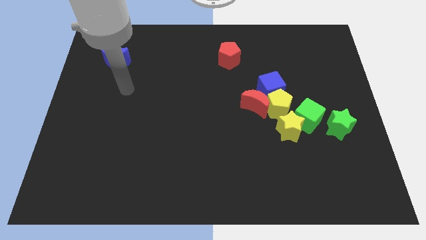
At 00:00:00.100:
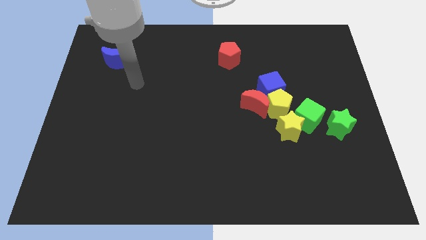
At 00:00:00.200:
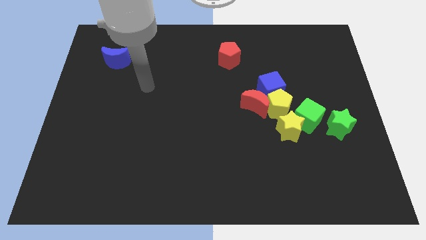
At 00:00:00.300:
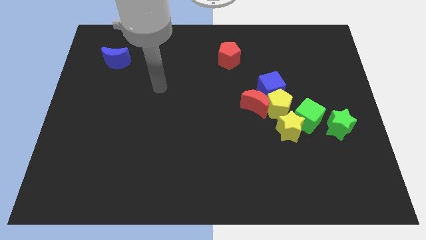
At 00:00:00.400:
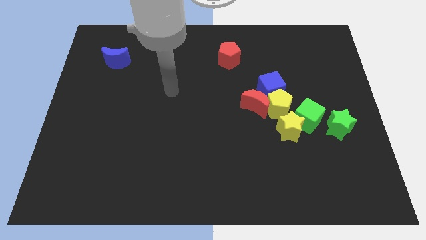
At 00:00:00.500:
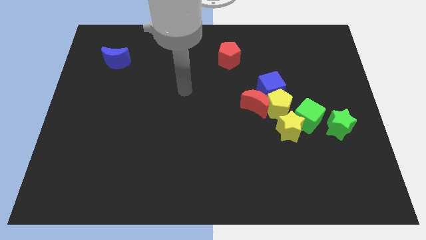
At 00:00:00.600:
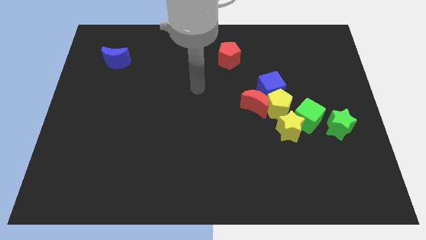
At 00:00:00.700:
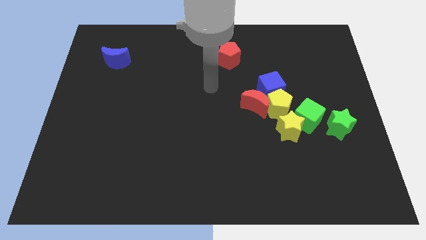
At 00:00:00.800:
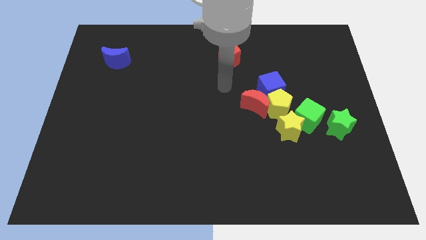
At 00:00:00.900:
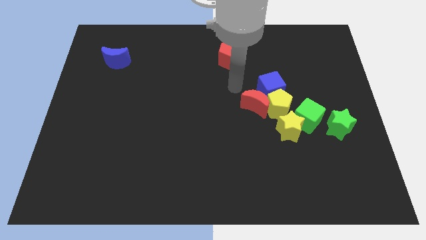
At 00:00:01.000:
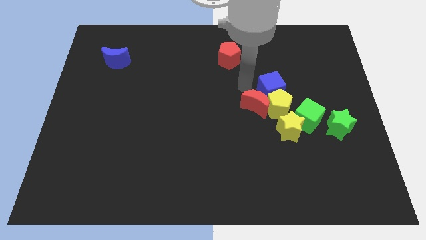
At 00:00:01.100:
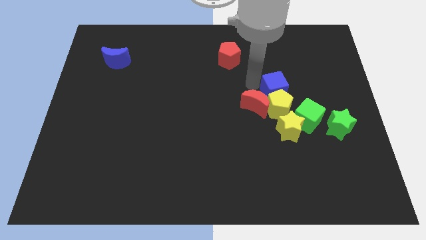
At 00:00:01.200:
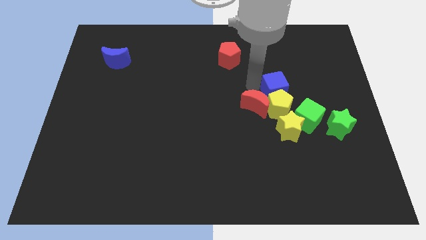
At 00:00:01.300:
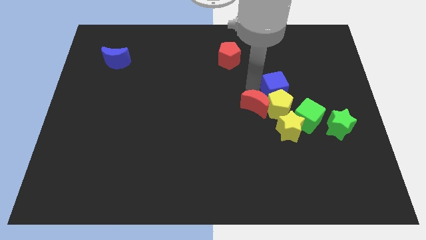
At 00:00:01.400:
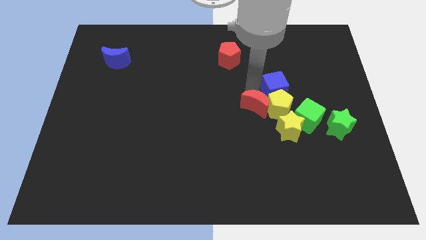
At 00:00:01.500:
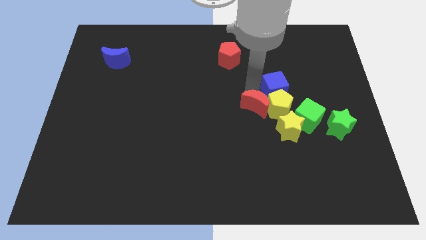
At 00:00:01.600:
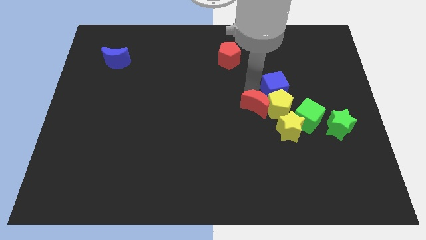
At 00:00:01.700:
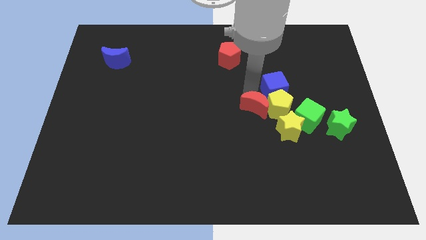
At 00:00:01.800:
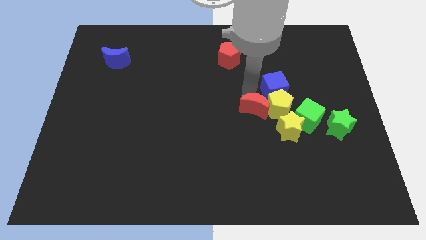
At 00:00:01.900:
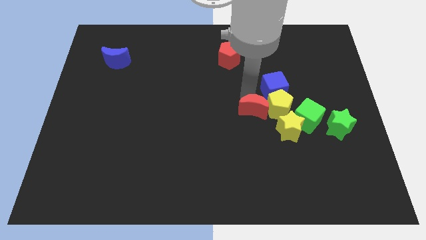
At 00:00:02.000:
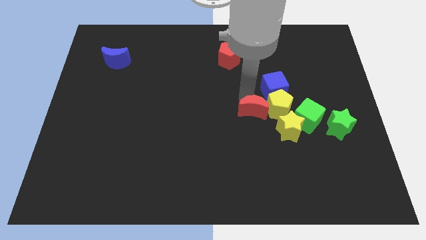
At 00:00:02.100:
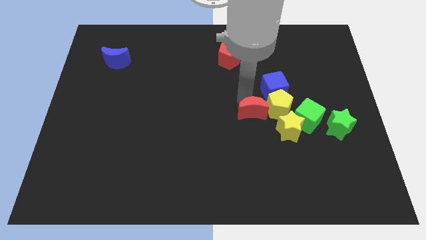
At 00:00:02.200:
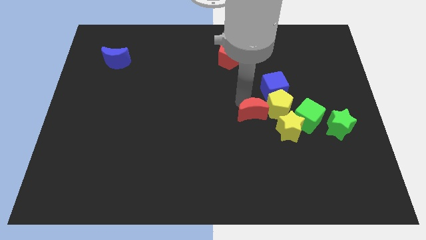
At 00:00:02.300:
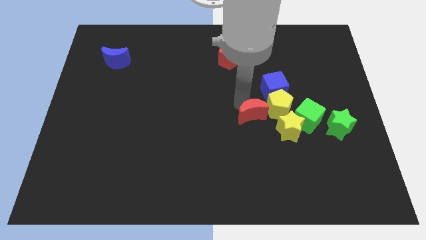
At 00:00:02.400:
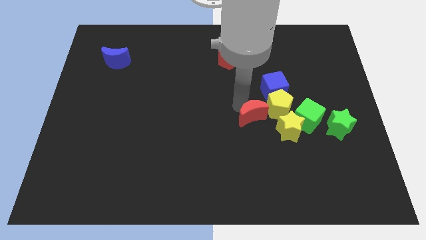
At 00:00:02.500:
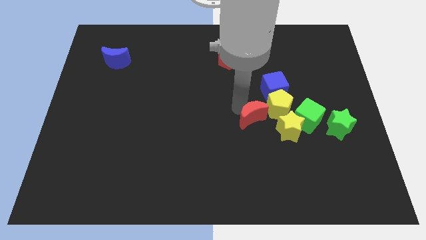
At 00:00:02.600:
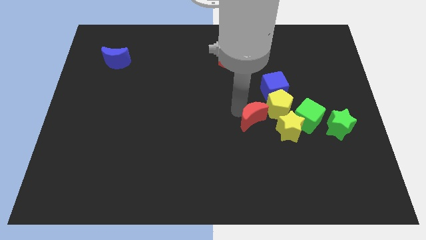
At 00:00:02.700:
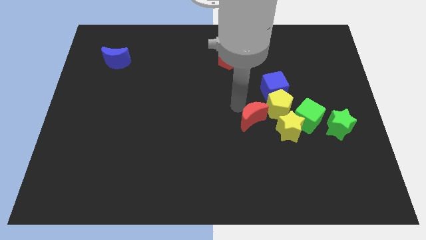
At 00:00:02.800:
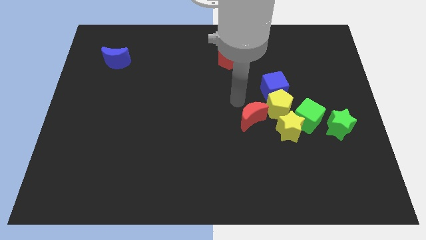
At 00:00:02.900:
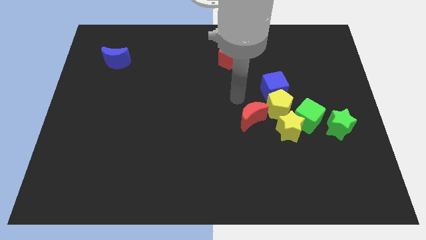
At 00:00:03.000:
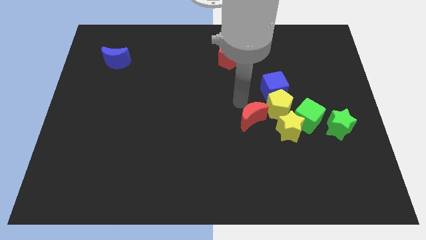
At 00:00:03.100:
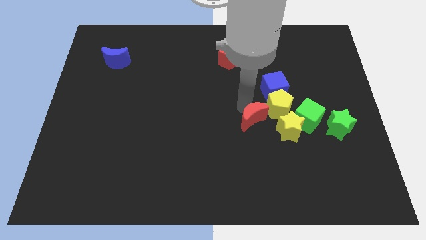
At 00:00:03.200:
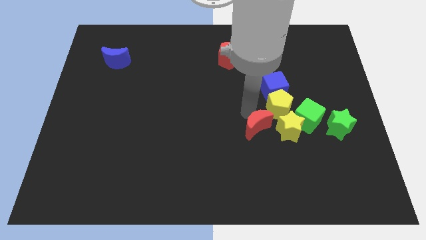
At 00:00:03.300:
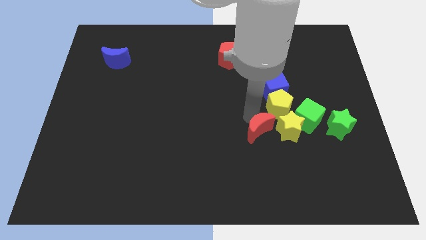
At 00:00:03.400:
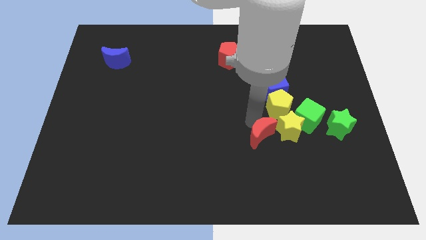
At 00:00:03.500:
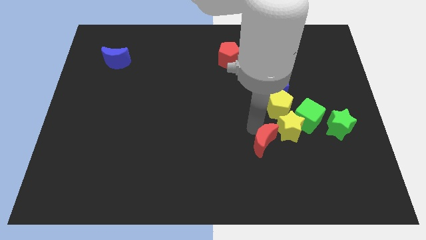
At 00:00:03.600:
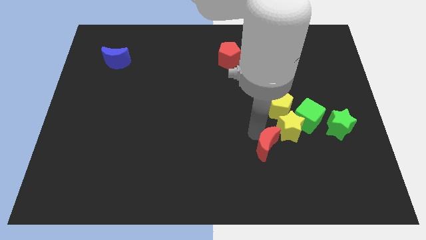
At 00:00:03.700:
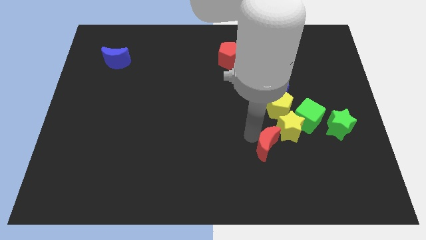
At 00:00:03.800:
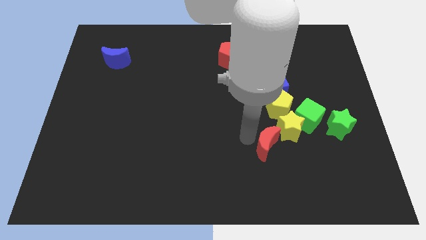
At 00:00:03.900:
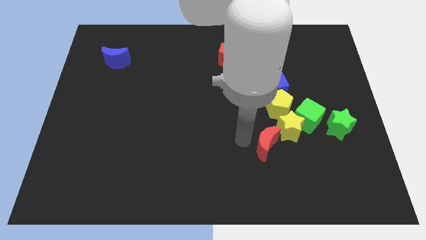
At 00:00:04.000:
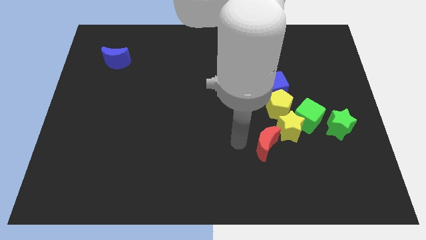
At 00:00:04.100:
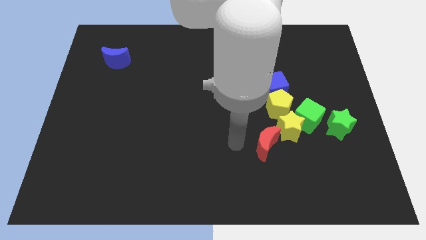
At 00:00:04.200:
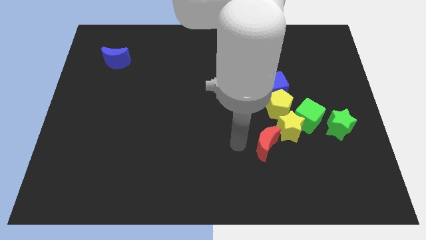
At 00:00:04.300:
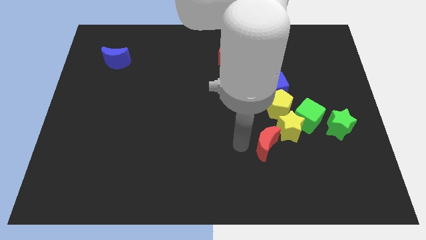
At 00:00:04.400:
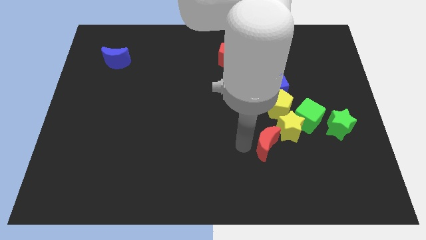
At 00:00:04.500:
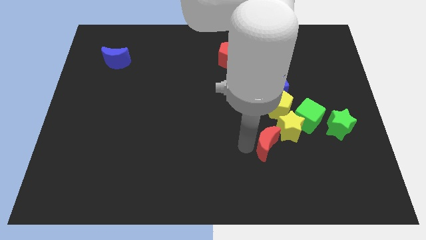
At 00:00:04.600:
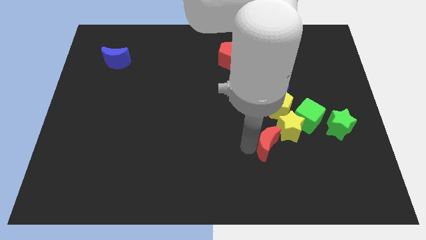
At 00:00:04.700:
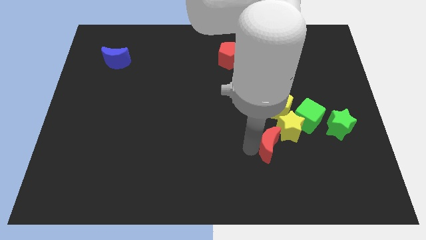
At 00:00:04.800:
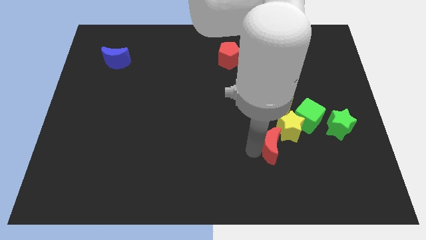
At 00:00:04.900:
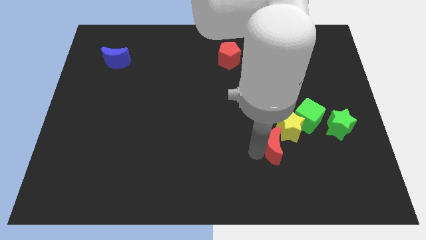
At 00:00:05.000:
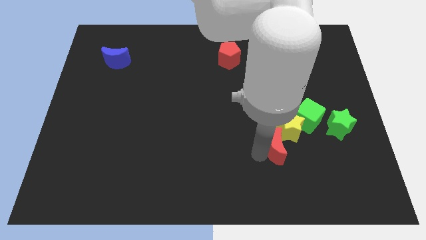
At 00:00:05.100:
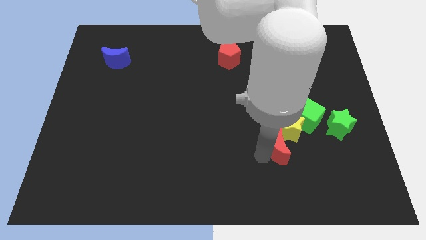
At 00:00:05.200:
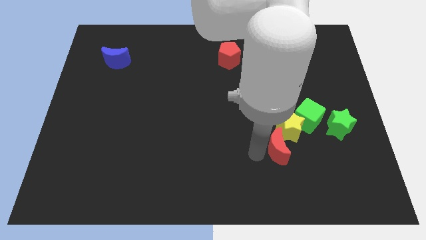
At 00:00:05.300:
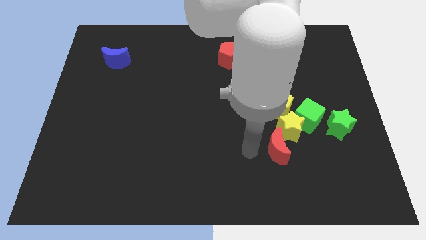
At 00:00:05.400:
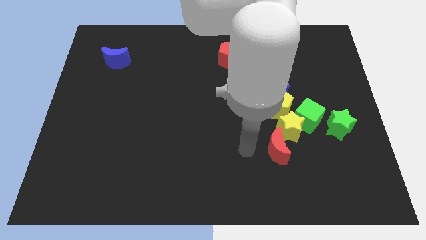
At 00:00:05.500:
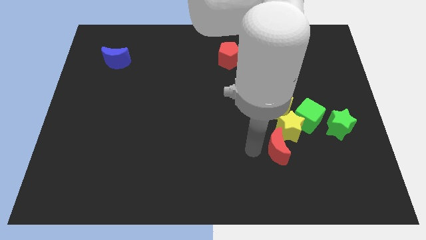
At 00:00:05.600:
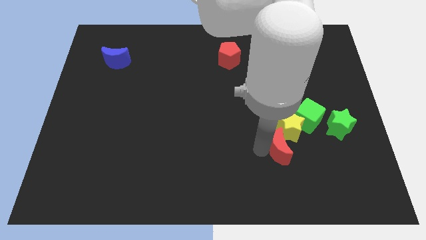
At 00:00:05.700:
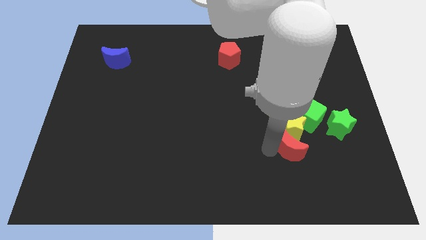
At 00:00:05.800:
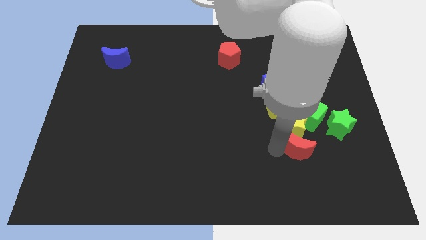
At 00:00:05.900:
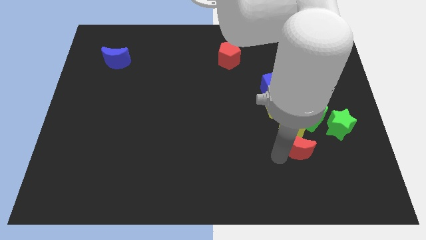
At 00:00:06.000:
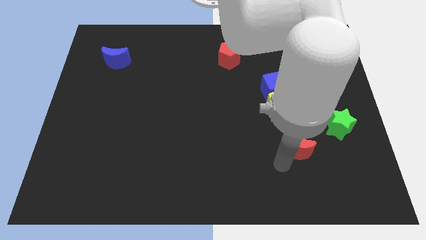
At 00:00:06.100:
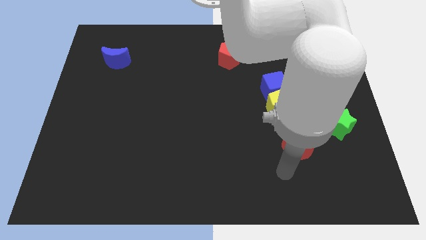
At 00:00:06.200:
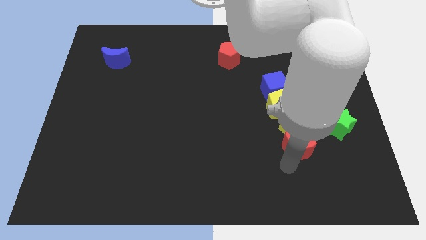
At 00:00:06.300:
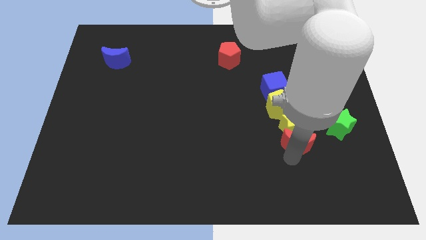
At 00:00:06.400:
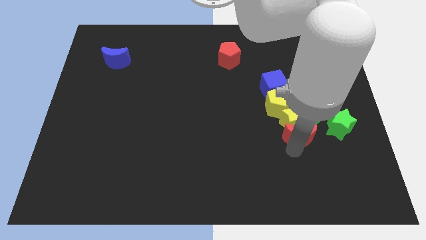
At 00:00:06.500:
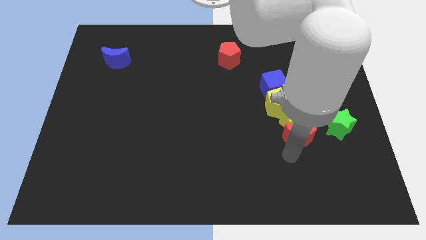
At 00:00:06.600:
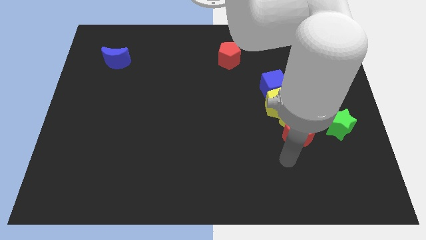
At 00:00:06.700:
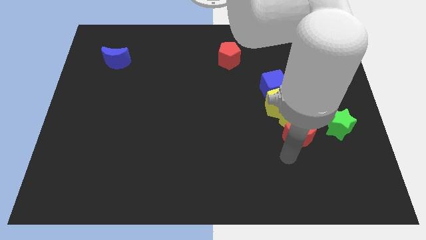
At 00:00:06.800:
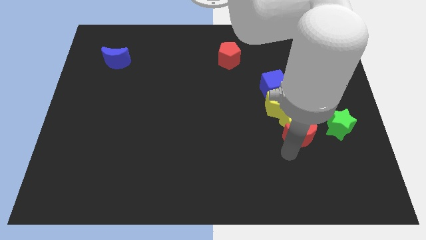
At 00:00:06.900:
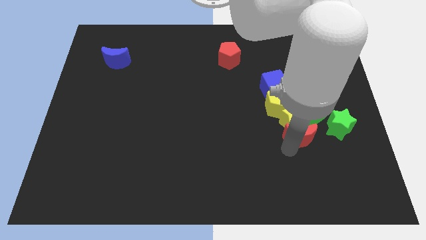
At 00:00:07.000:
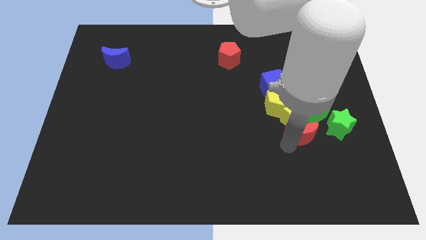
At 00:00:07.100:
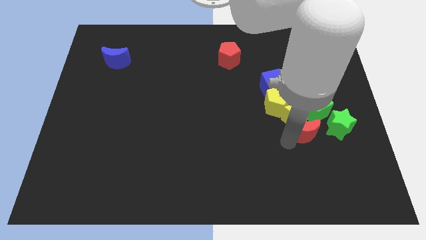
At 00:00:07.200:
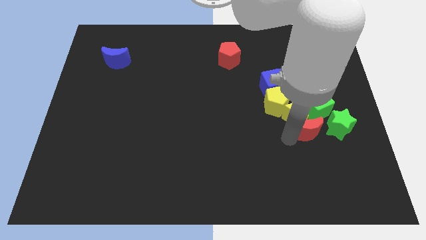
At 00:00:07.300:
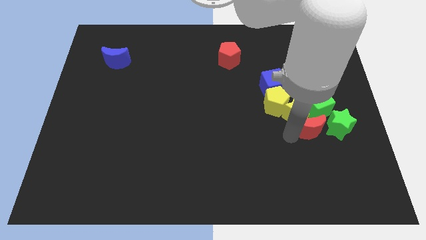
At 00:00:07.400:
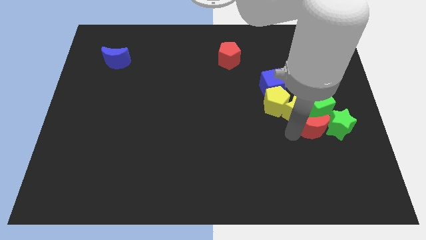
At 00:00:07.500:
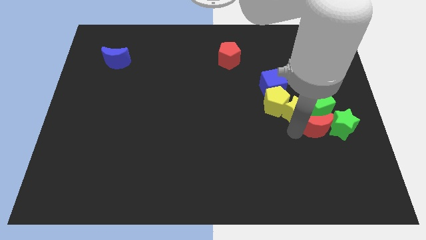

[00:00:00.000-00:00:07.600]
slide the red moon close to the green cube

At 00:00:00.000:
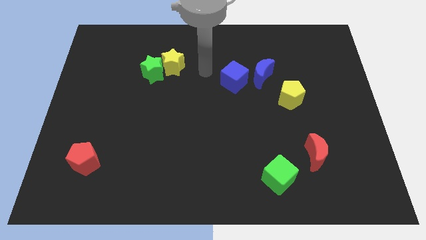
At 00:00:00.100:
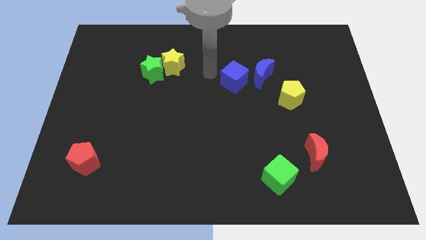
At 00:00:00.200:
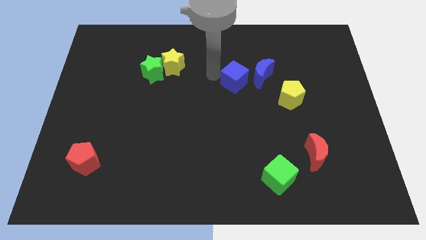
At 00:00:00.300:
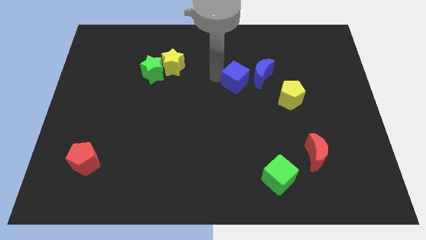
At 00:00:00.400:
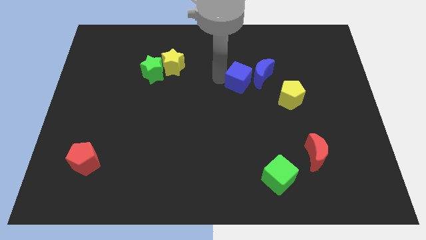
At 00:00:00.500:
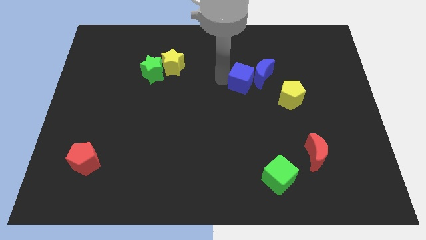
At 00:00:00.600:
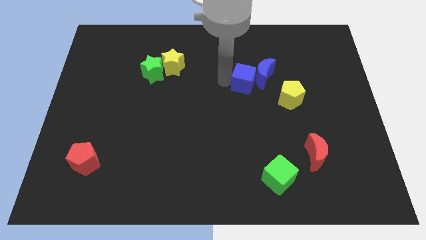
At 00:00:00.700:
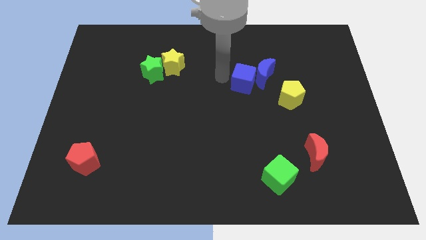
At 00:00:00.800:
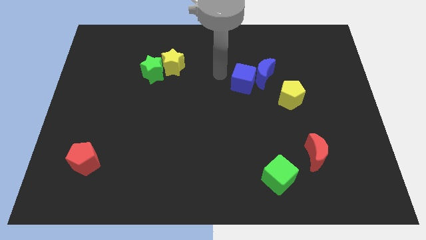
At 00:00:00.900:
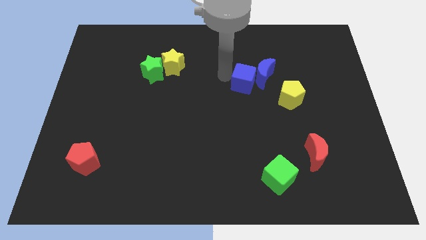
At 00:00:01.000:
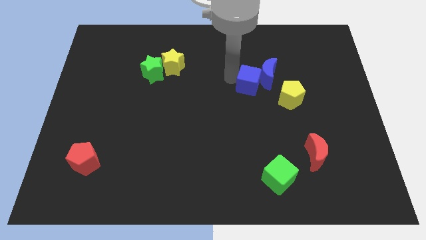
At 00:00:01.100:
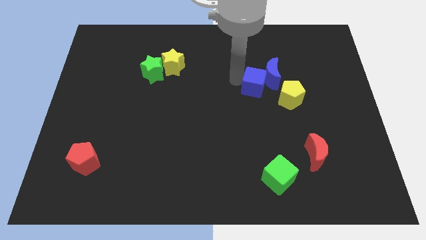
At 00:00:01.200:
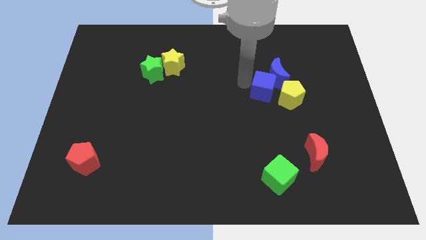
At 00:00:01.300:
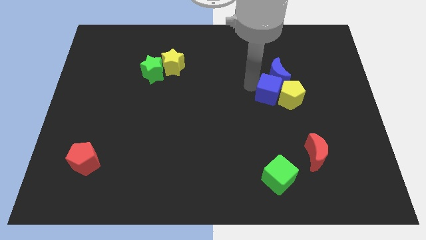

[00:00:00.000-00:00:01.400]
slide the blue cube close to the yellow pentagon
